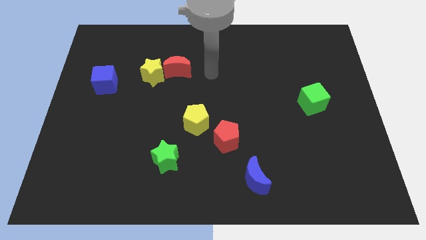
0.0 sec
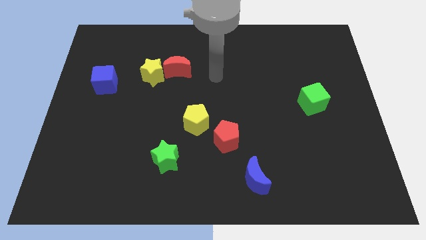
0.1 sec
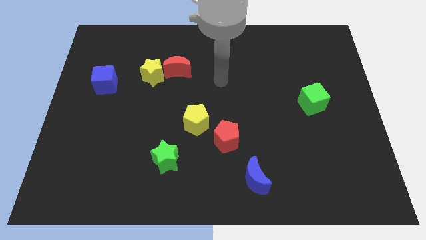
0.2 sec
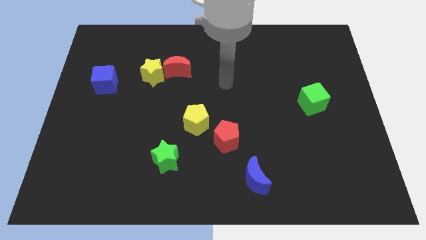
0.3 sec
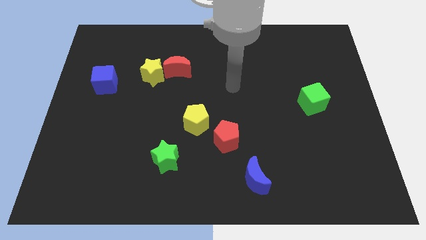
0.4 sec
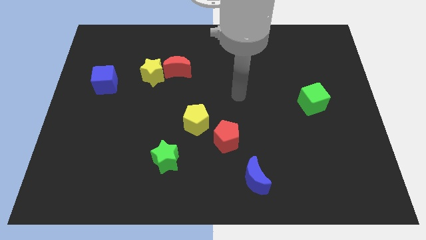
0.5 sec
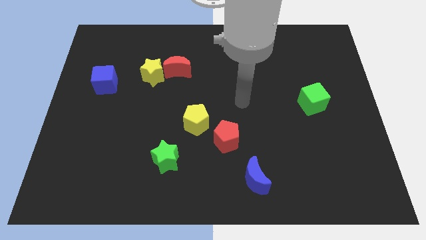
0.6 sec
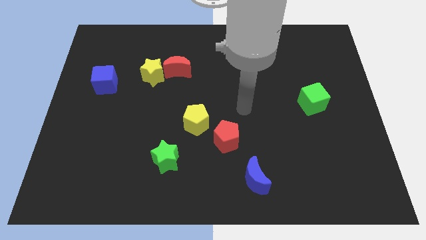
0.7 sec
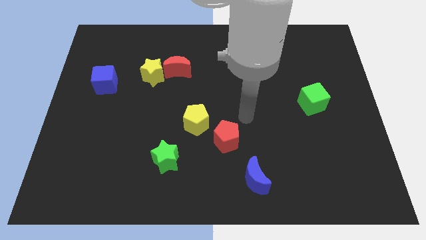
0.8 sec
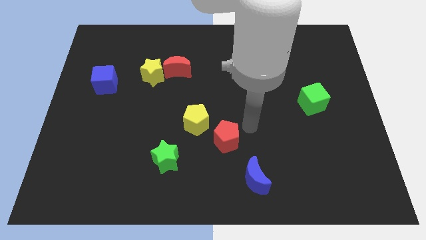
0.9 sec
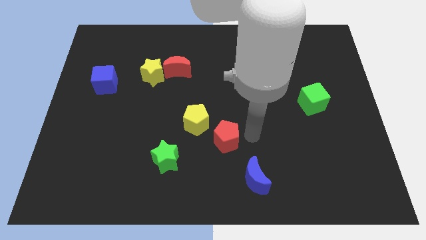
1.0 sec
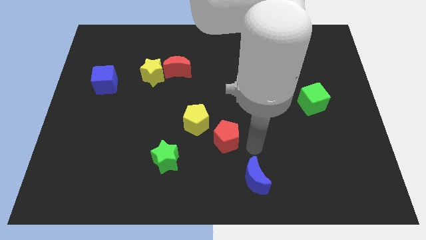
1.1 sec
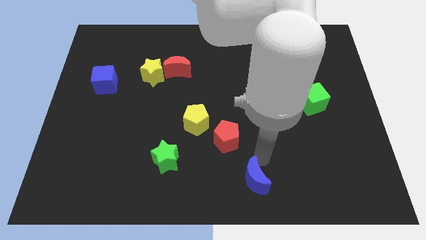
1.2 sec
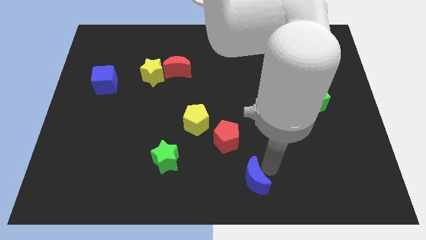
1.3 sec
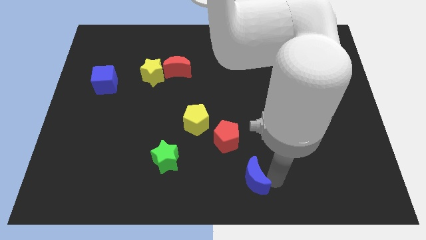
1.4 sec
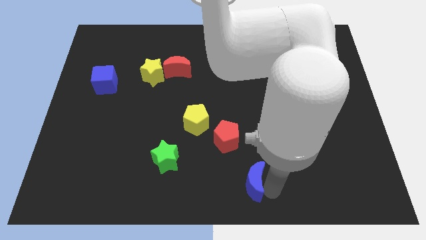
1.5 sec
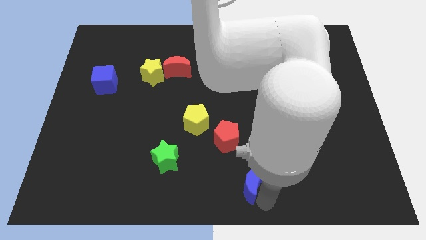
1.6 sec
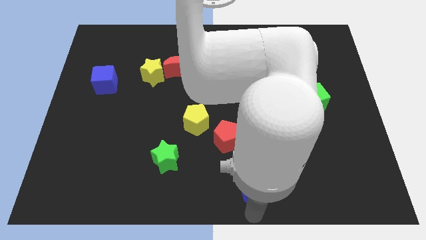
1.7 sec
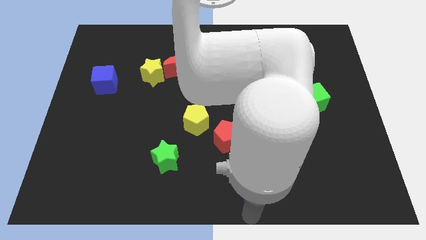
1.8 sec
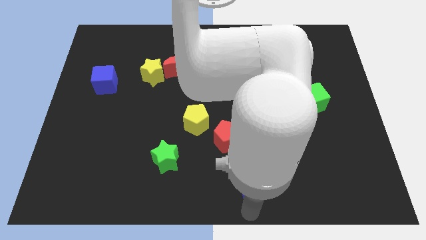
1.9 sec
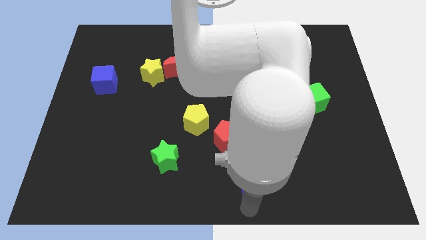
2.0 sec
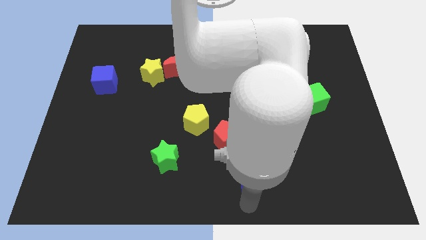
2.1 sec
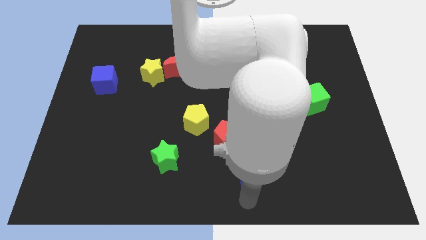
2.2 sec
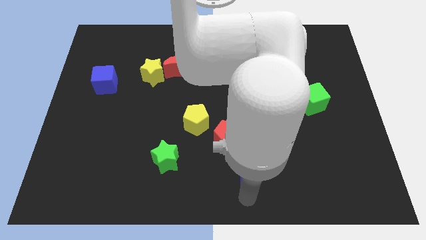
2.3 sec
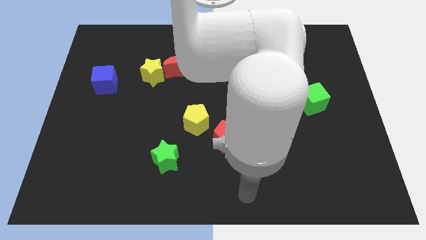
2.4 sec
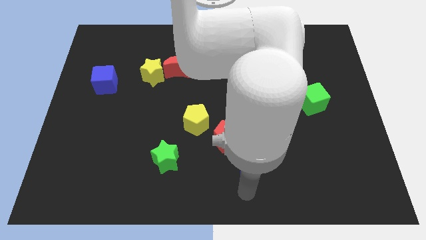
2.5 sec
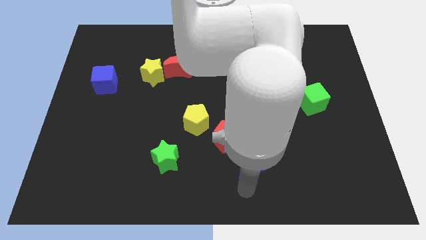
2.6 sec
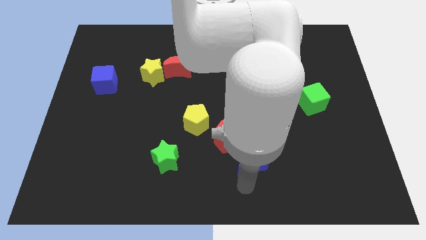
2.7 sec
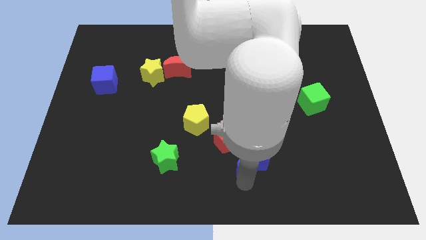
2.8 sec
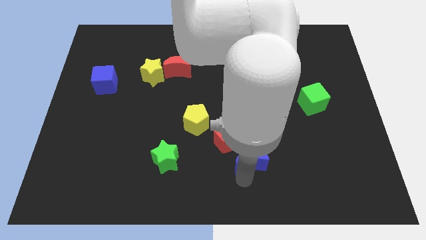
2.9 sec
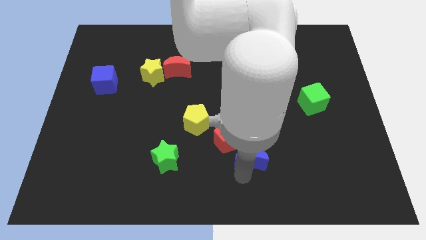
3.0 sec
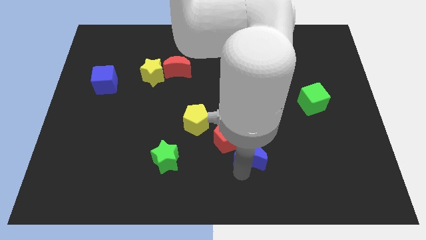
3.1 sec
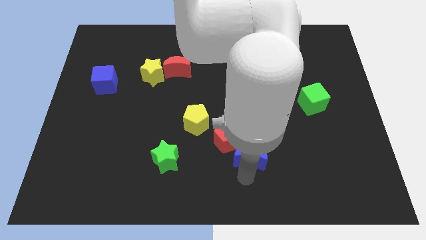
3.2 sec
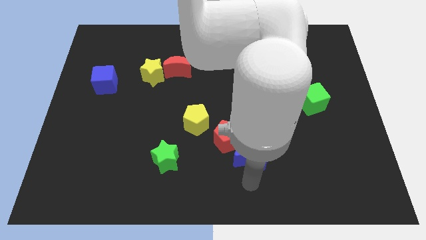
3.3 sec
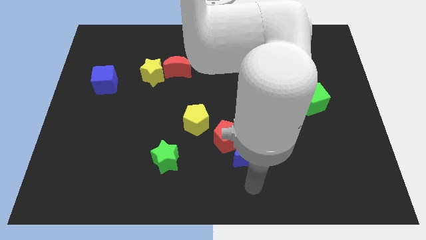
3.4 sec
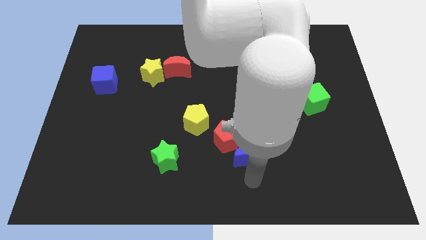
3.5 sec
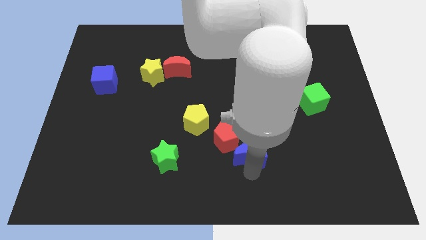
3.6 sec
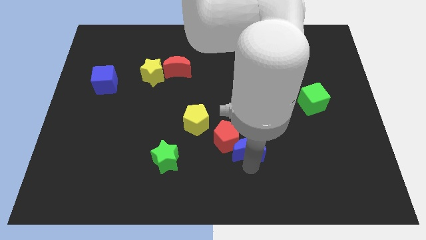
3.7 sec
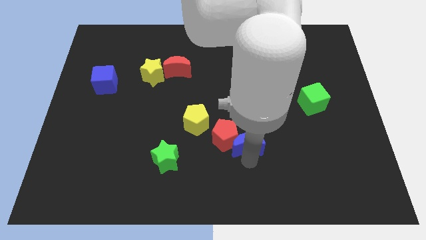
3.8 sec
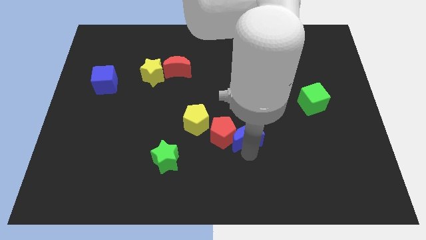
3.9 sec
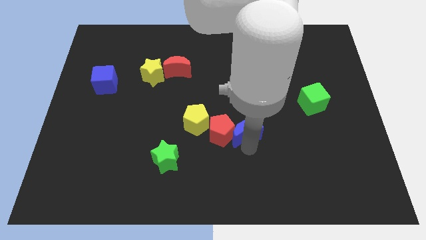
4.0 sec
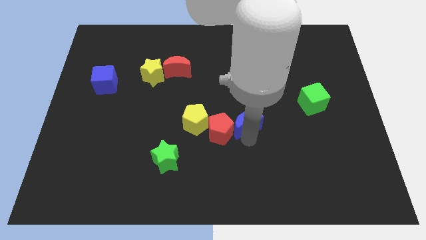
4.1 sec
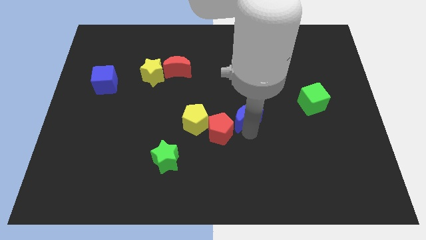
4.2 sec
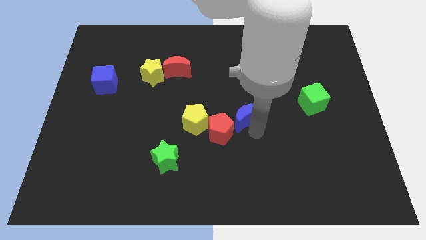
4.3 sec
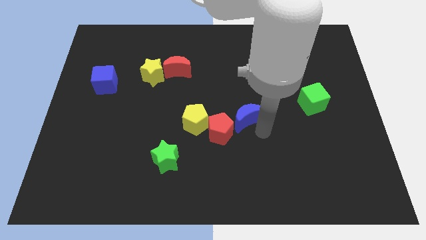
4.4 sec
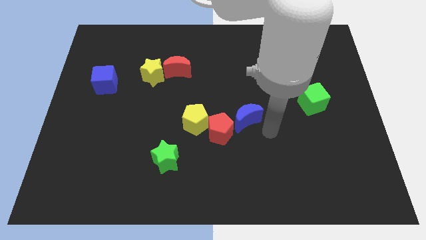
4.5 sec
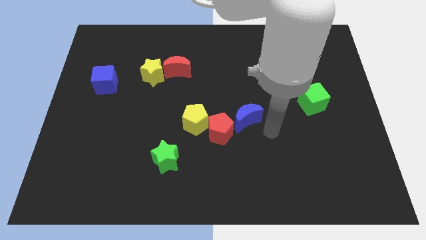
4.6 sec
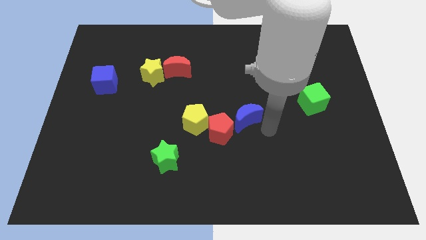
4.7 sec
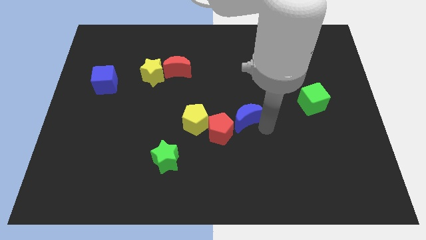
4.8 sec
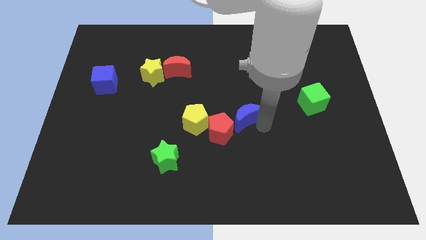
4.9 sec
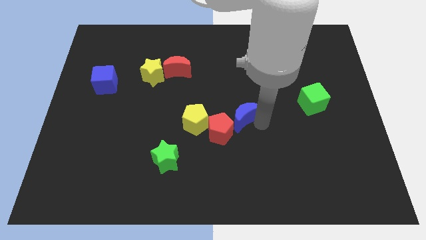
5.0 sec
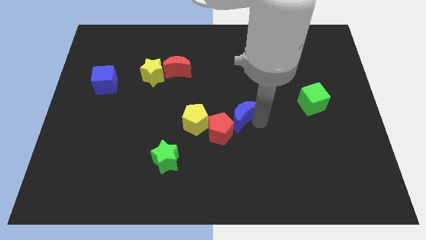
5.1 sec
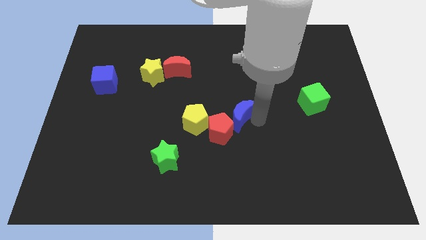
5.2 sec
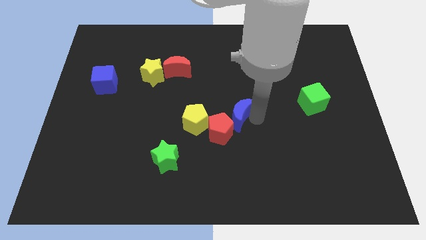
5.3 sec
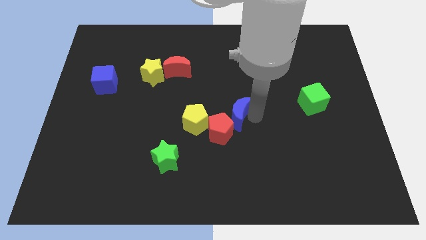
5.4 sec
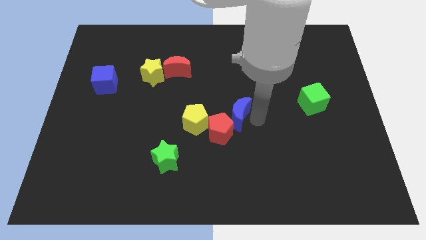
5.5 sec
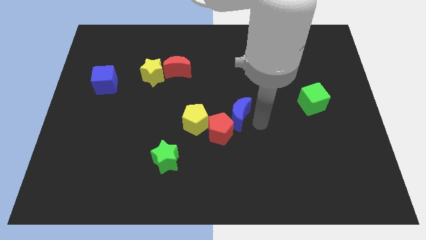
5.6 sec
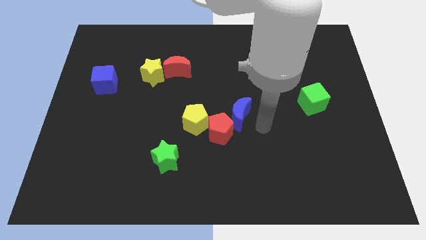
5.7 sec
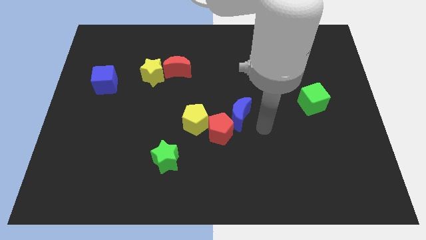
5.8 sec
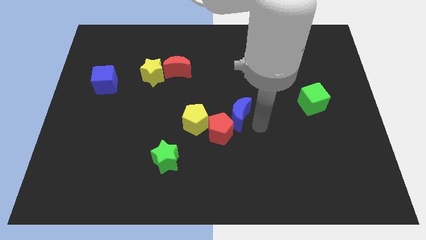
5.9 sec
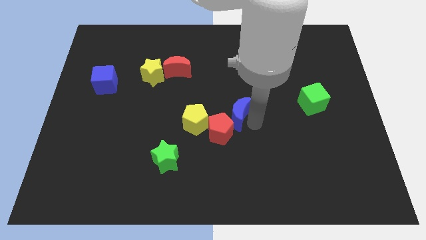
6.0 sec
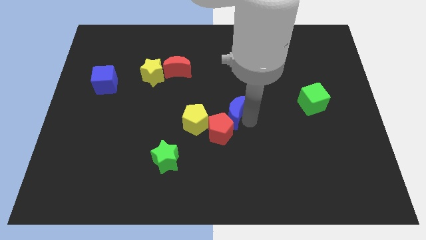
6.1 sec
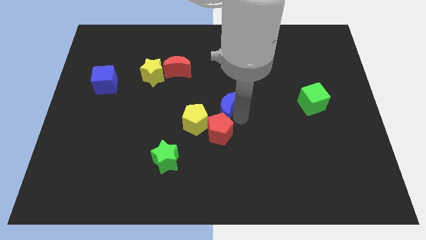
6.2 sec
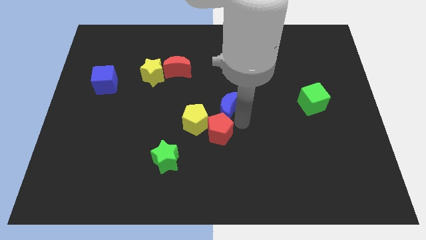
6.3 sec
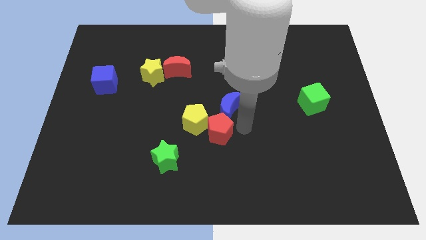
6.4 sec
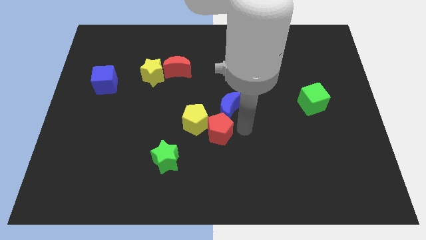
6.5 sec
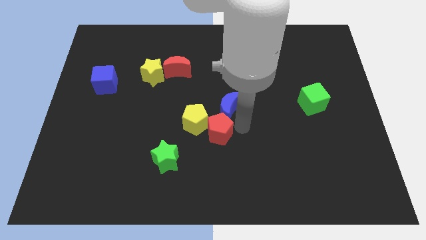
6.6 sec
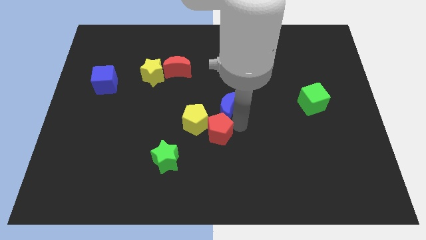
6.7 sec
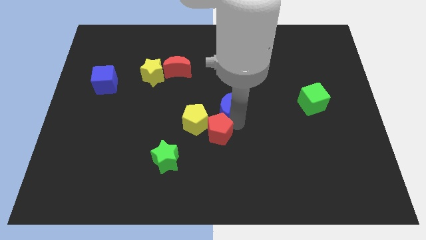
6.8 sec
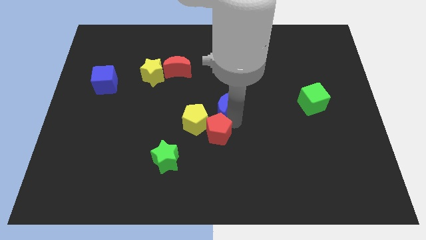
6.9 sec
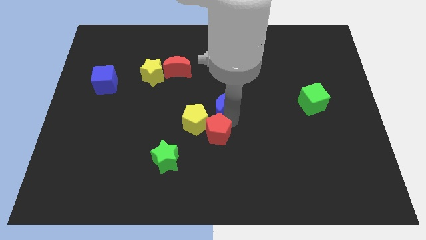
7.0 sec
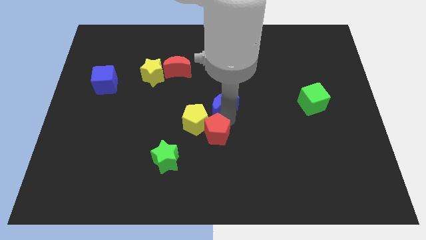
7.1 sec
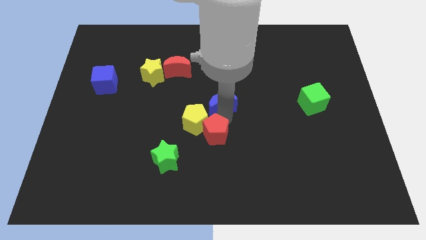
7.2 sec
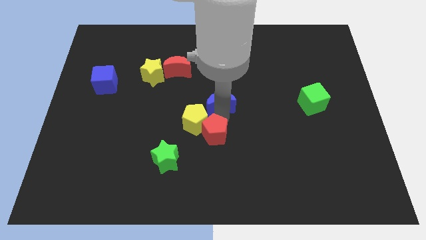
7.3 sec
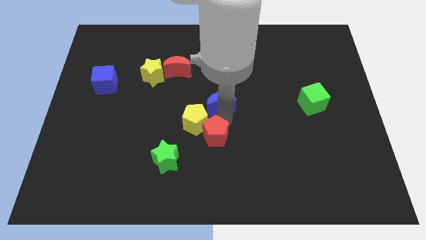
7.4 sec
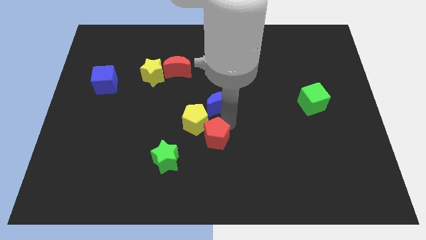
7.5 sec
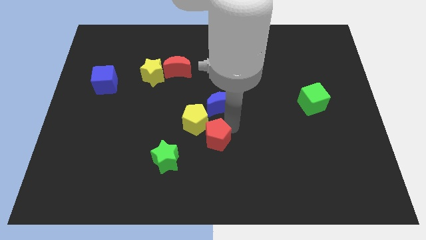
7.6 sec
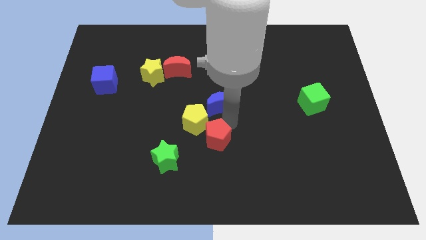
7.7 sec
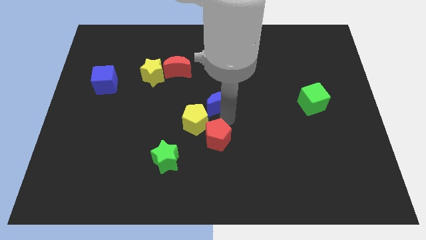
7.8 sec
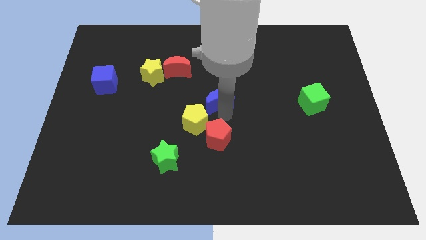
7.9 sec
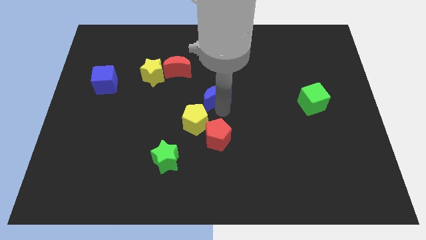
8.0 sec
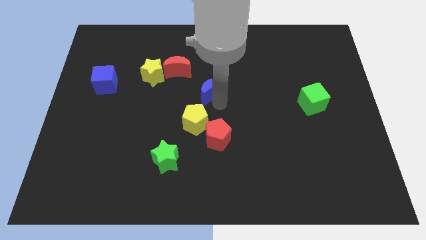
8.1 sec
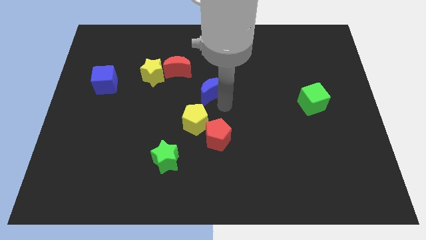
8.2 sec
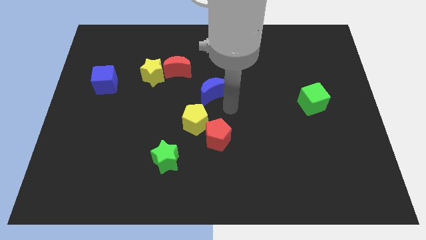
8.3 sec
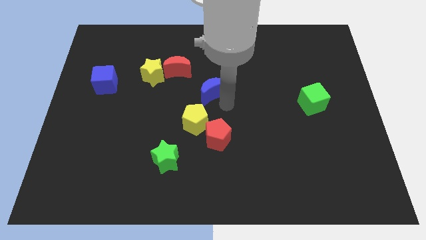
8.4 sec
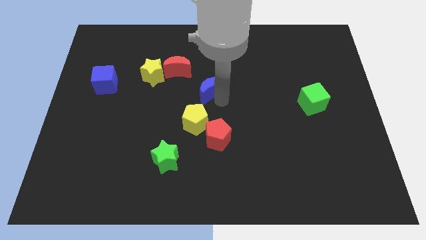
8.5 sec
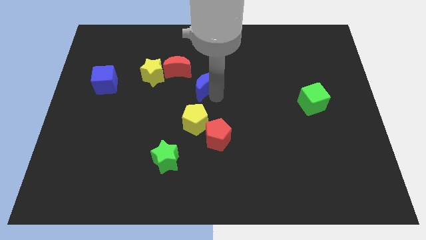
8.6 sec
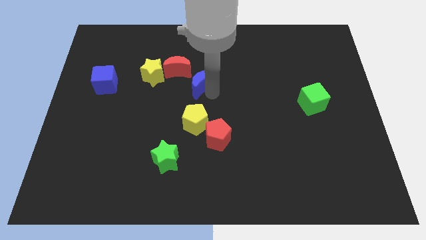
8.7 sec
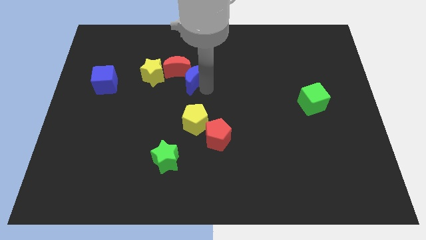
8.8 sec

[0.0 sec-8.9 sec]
push the blue moon to the red moon
